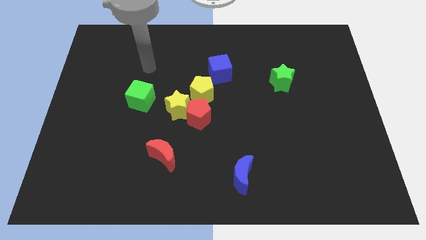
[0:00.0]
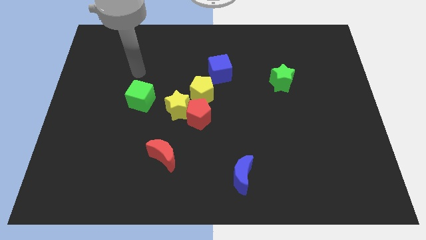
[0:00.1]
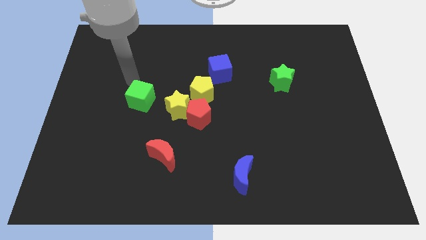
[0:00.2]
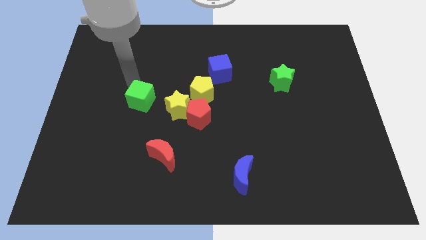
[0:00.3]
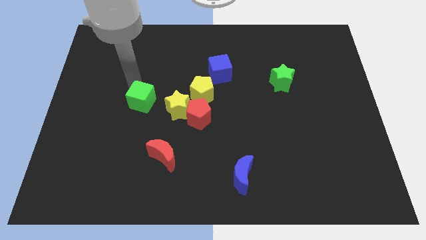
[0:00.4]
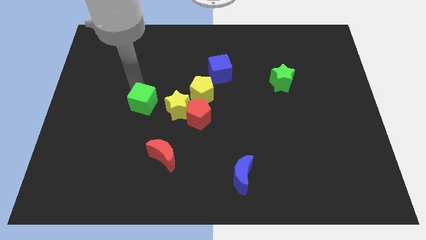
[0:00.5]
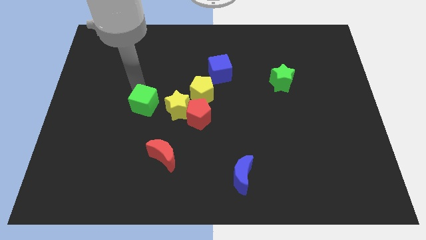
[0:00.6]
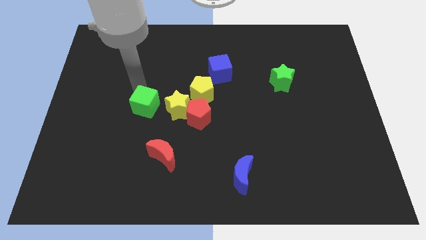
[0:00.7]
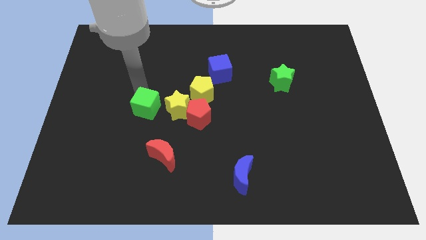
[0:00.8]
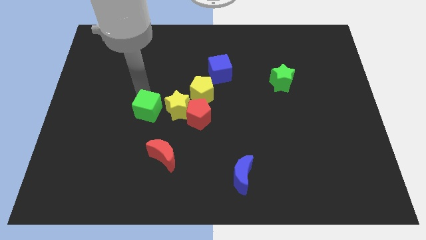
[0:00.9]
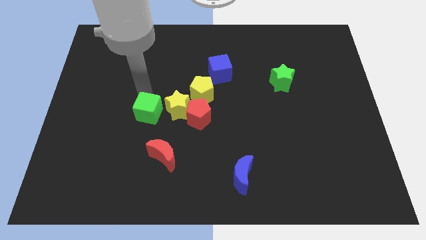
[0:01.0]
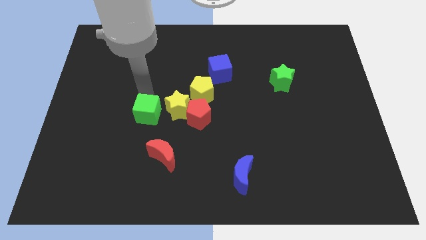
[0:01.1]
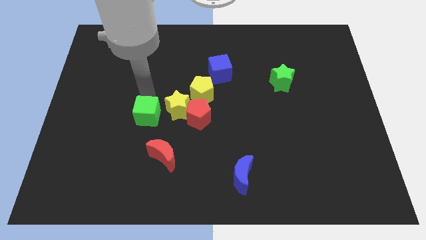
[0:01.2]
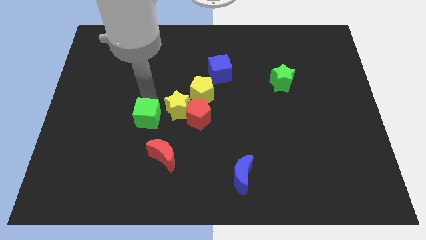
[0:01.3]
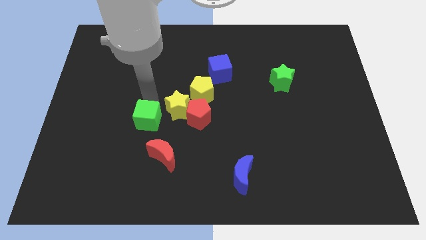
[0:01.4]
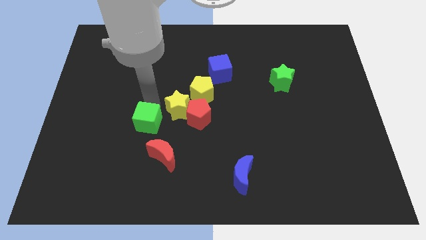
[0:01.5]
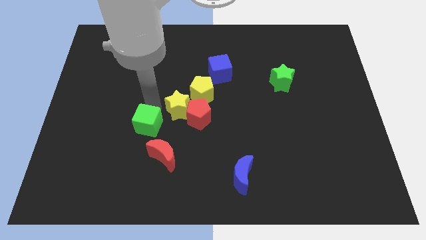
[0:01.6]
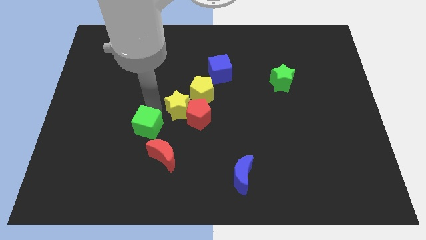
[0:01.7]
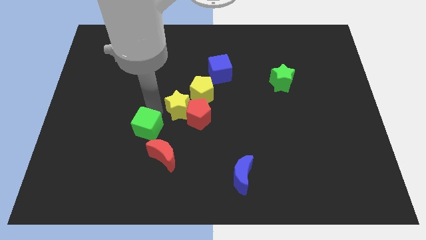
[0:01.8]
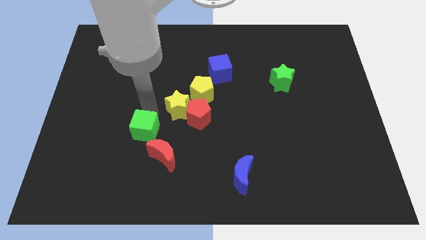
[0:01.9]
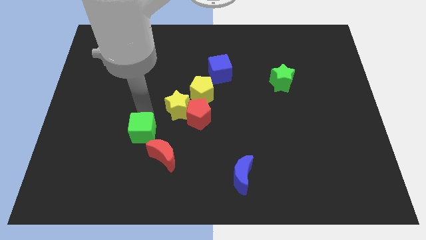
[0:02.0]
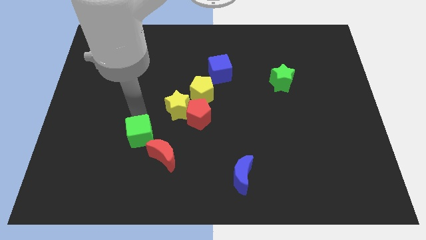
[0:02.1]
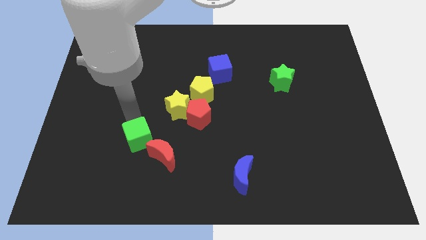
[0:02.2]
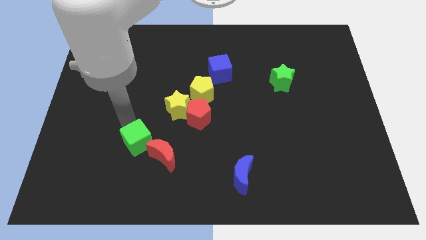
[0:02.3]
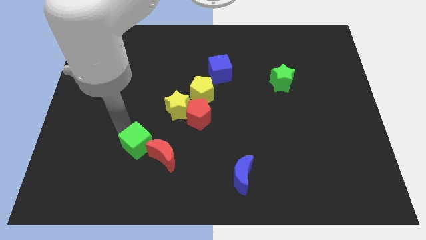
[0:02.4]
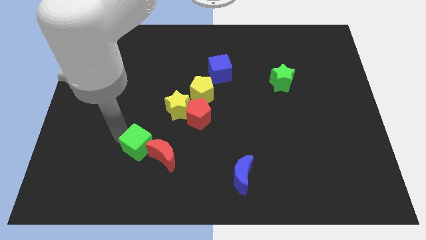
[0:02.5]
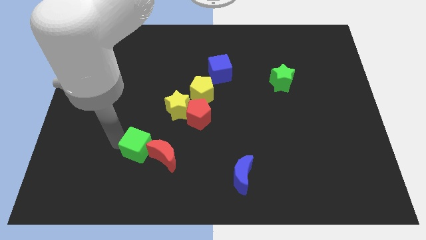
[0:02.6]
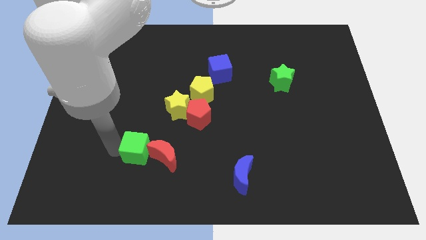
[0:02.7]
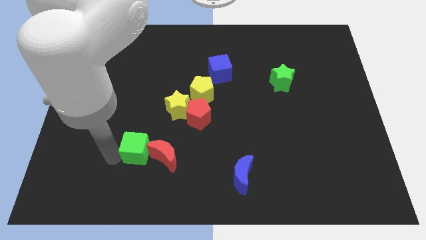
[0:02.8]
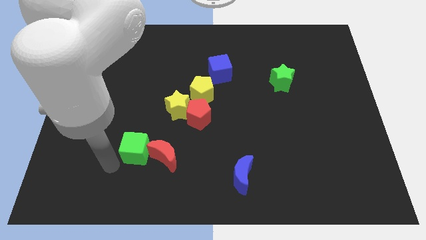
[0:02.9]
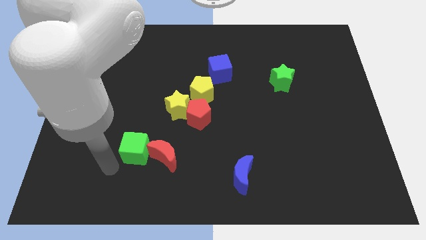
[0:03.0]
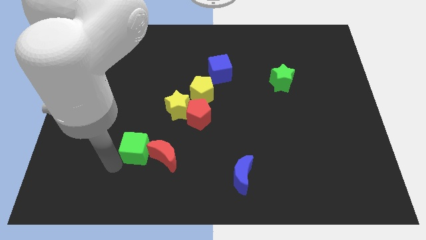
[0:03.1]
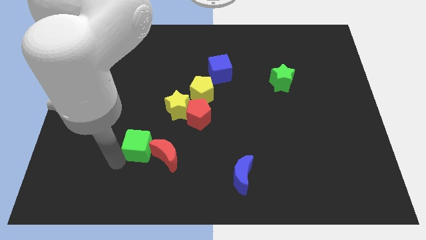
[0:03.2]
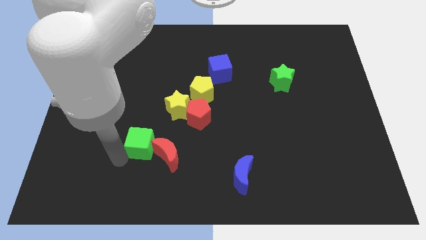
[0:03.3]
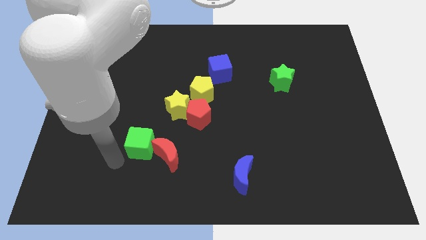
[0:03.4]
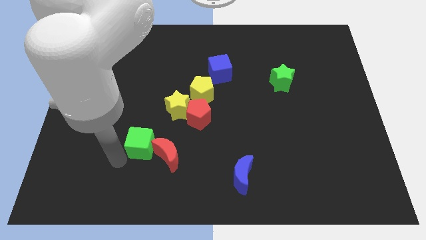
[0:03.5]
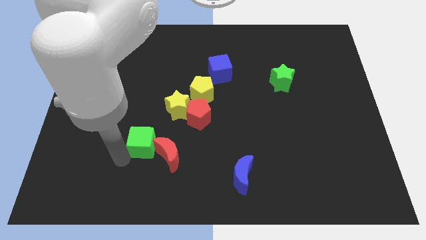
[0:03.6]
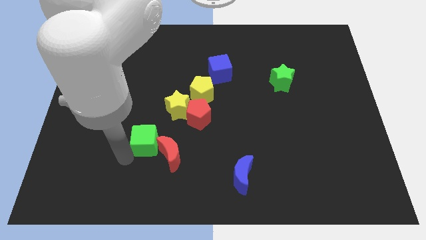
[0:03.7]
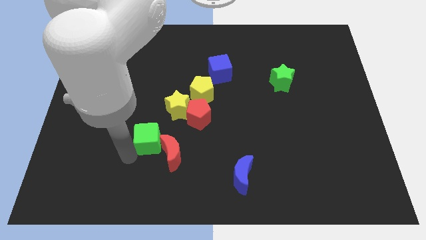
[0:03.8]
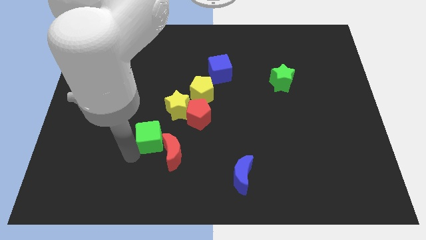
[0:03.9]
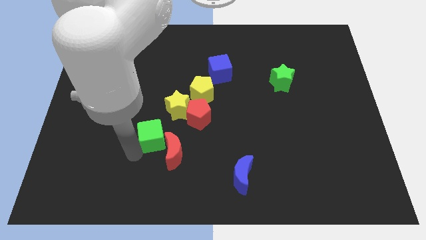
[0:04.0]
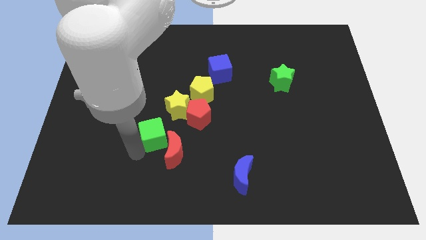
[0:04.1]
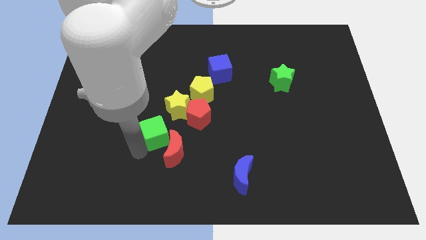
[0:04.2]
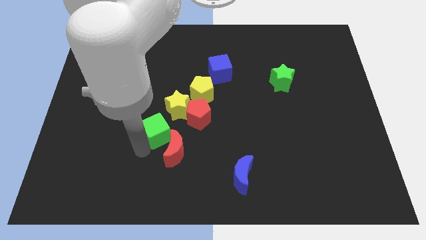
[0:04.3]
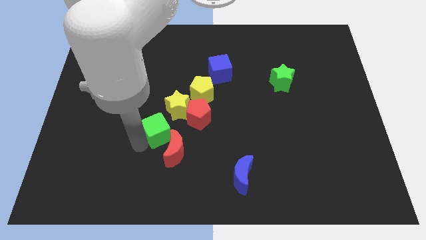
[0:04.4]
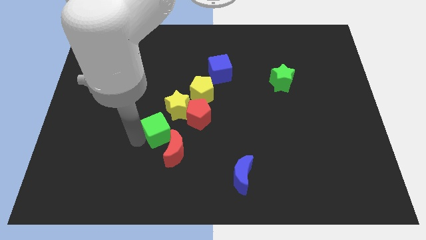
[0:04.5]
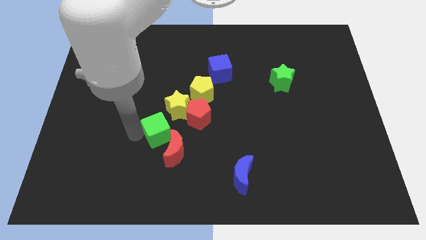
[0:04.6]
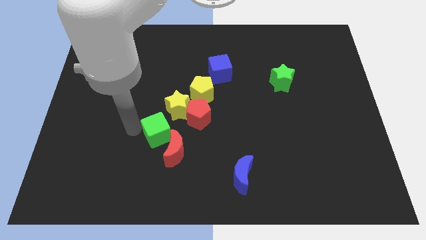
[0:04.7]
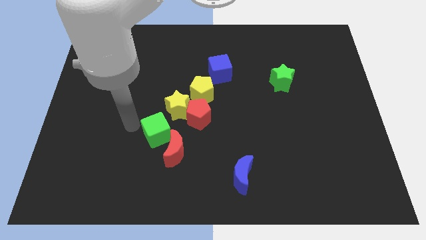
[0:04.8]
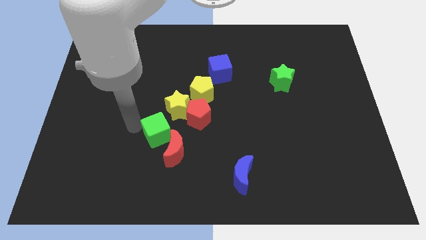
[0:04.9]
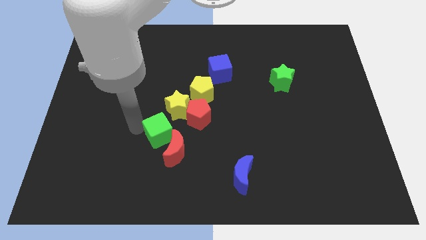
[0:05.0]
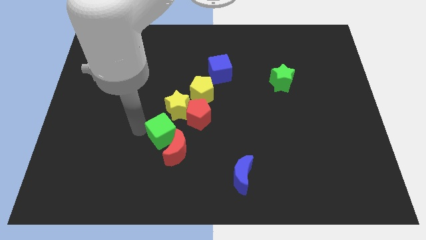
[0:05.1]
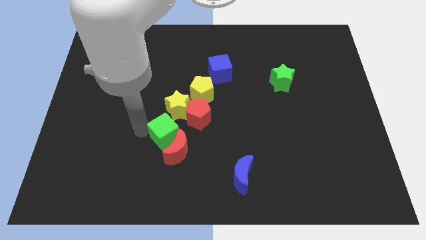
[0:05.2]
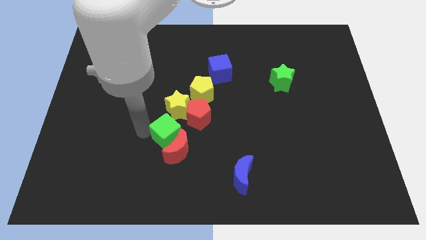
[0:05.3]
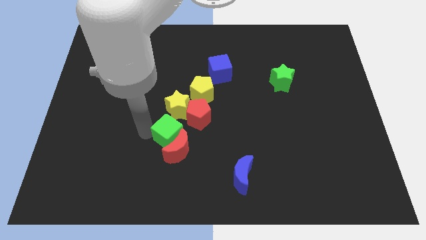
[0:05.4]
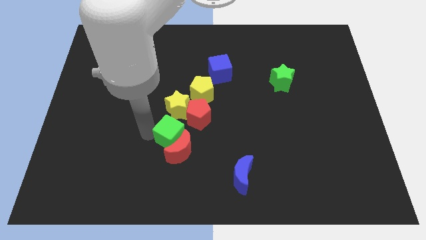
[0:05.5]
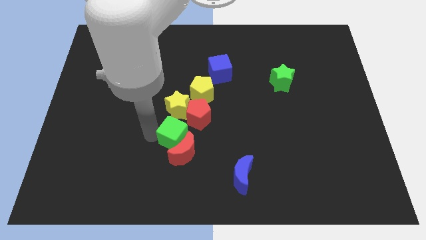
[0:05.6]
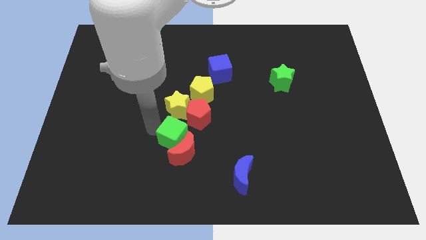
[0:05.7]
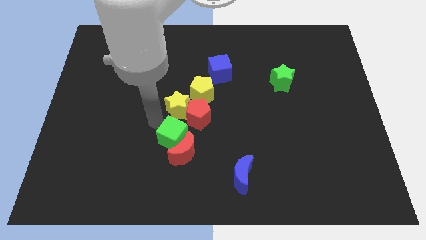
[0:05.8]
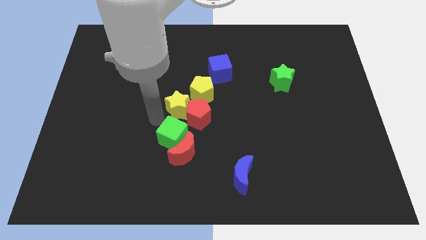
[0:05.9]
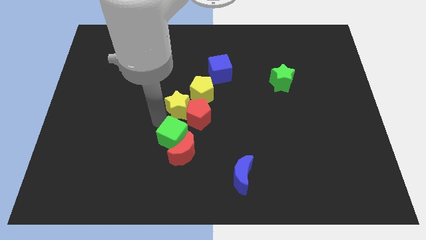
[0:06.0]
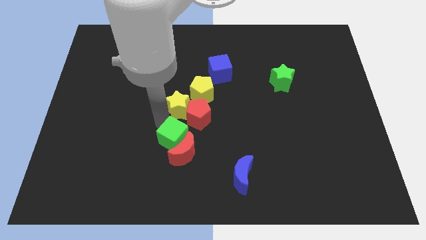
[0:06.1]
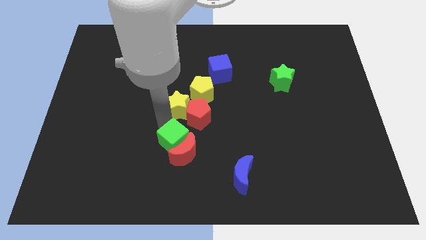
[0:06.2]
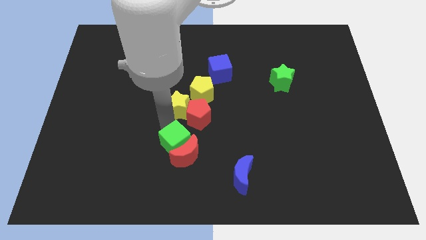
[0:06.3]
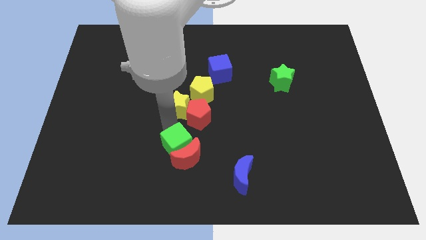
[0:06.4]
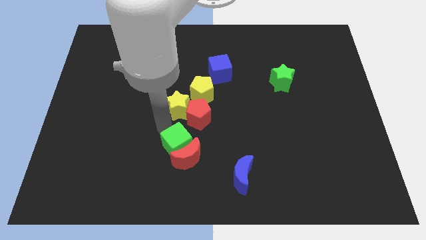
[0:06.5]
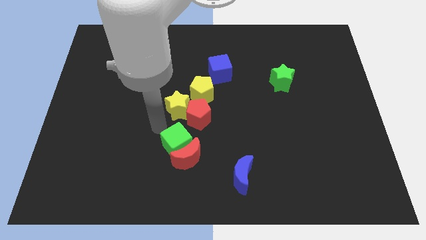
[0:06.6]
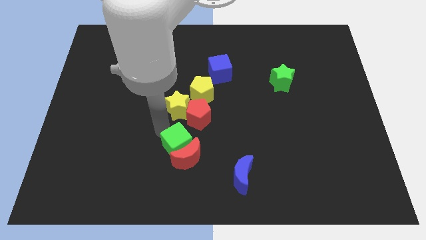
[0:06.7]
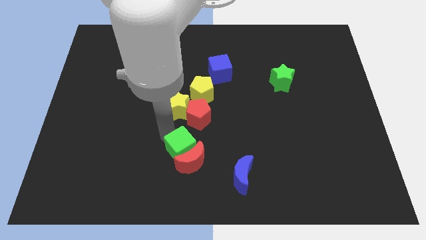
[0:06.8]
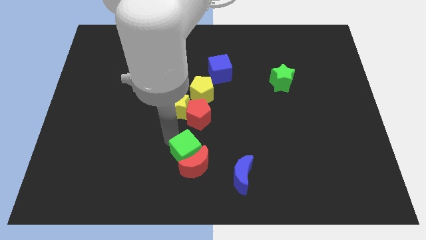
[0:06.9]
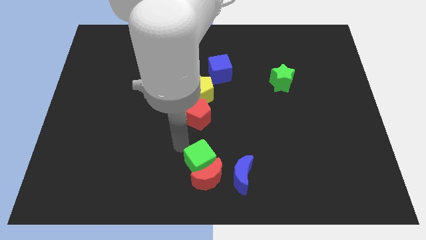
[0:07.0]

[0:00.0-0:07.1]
put the green cube to the bottom side
